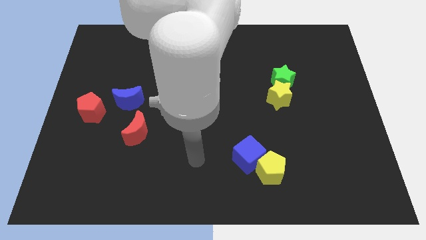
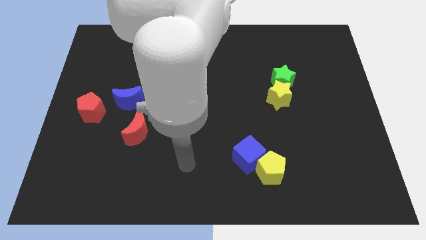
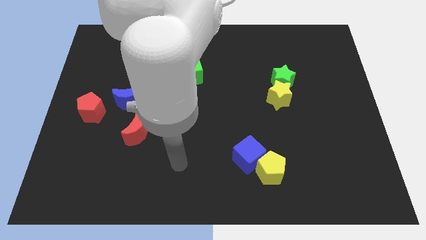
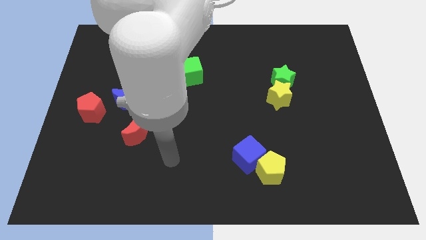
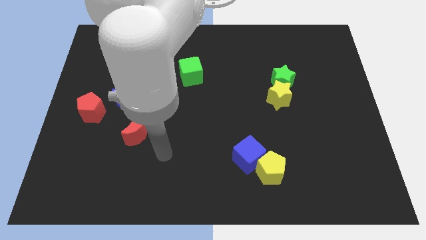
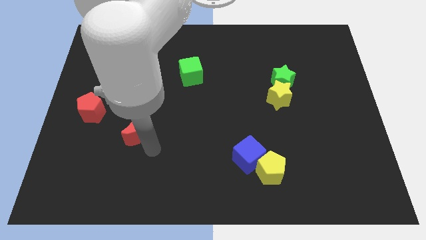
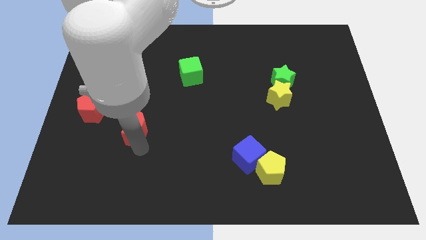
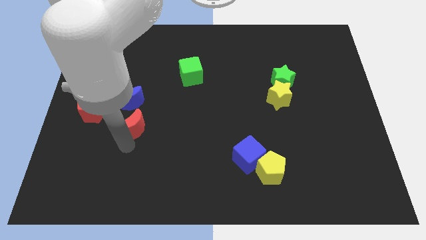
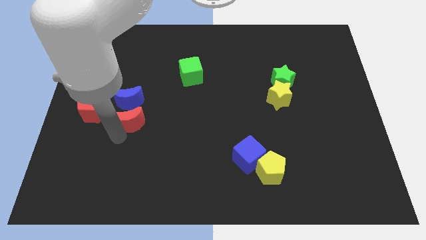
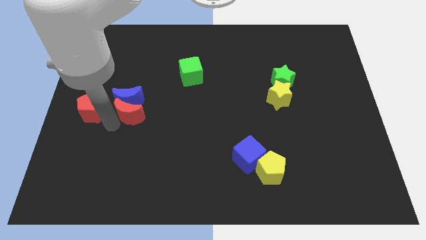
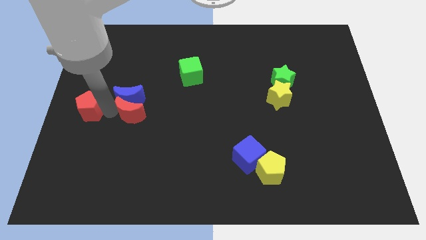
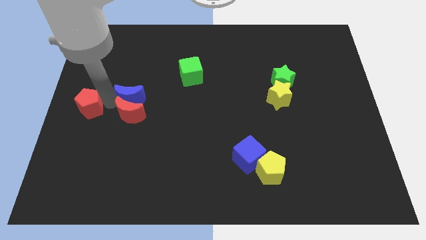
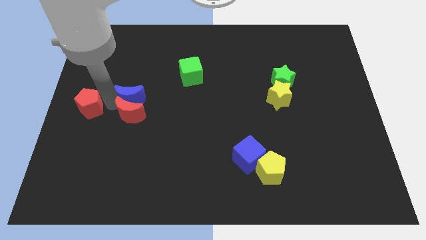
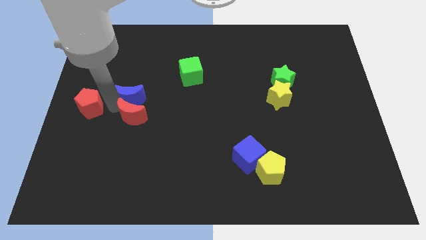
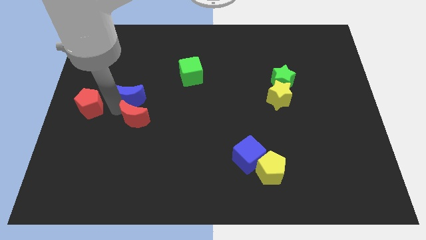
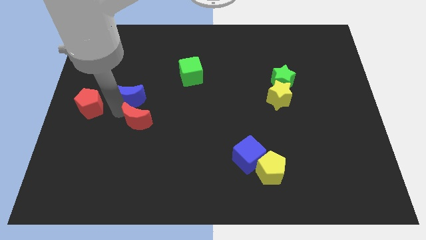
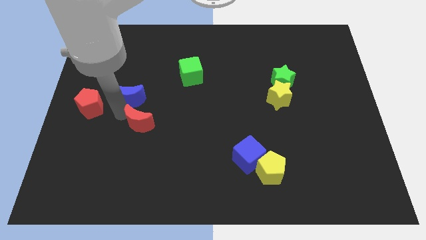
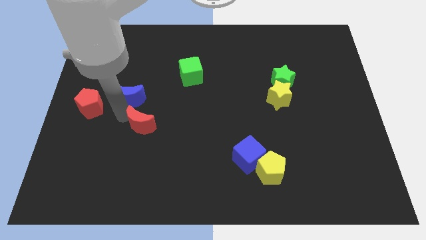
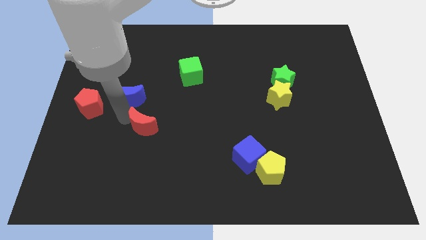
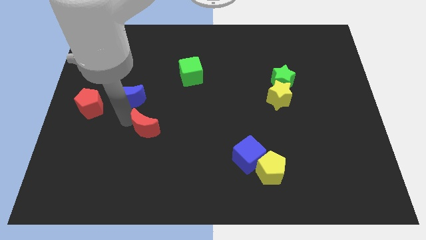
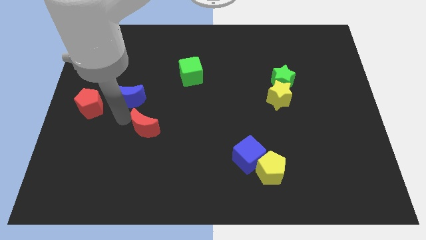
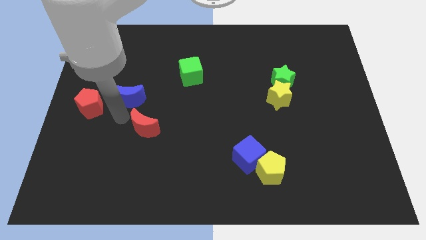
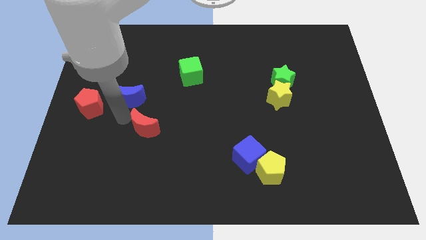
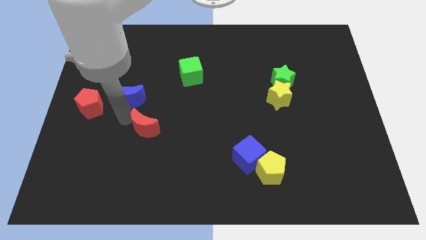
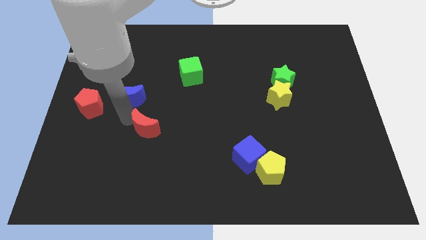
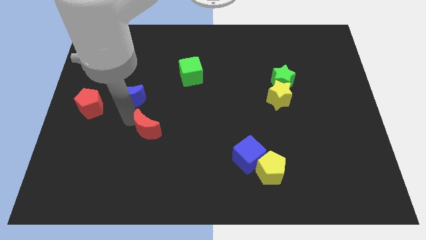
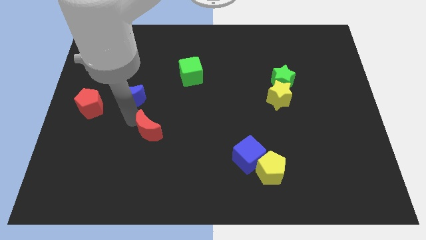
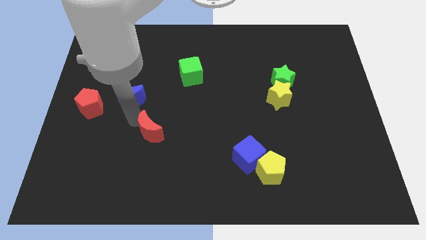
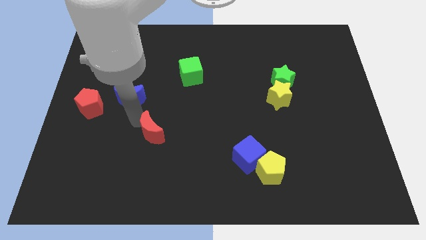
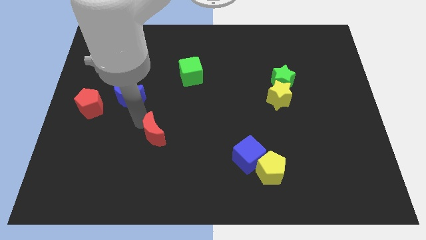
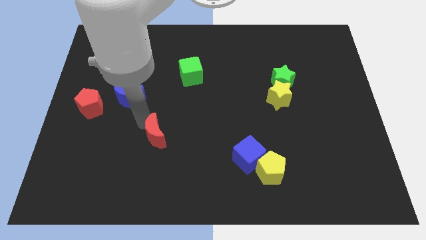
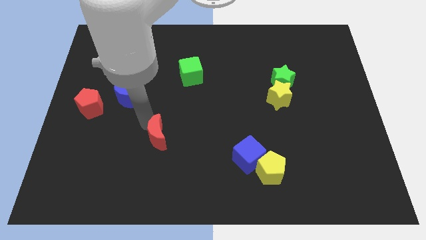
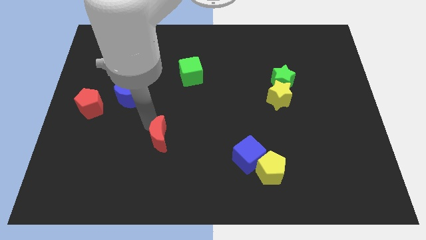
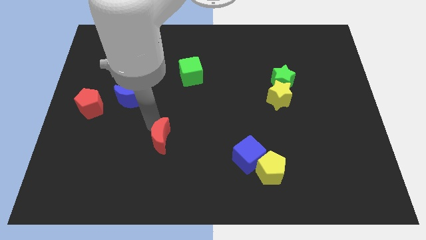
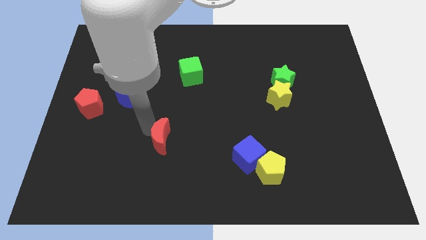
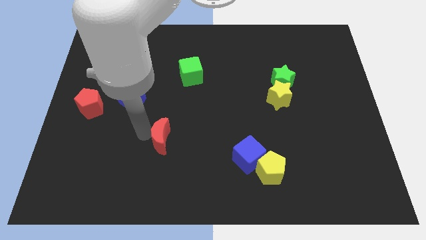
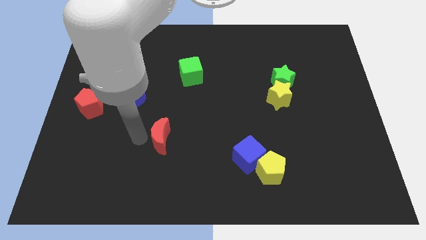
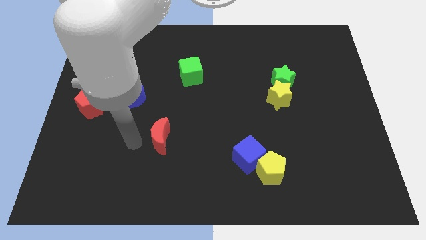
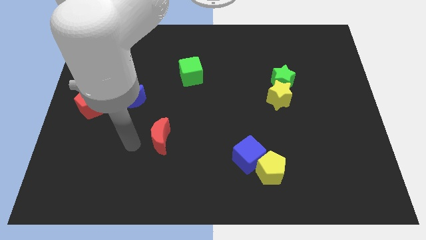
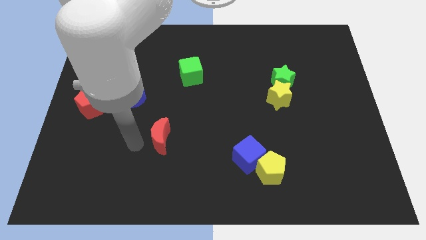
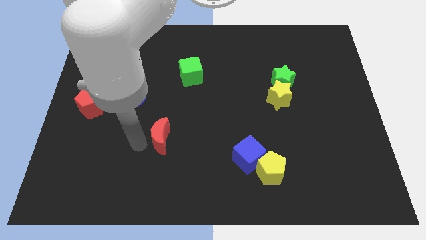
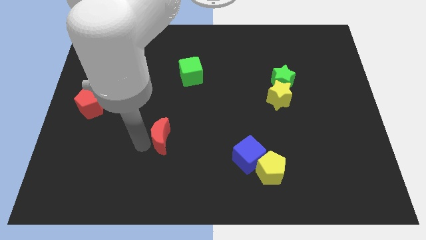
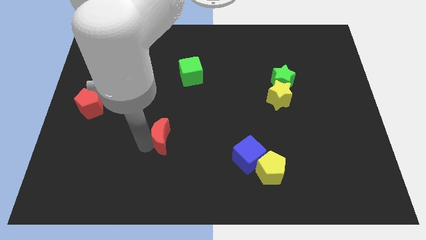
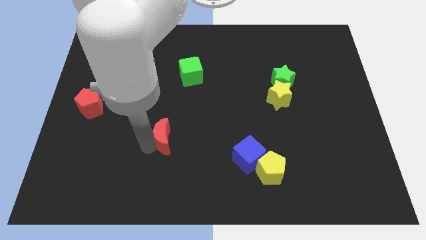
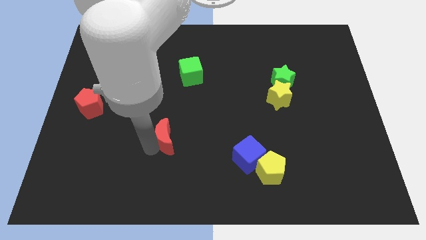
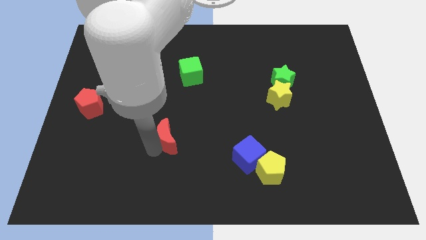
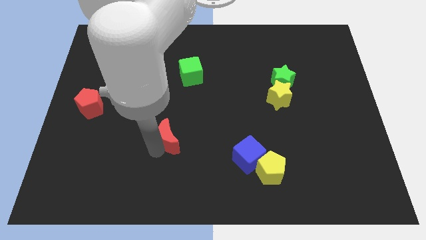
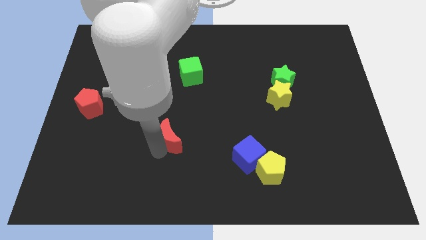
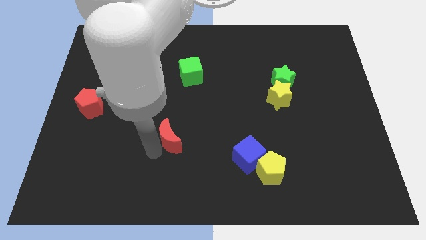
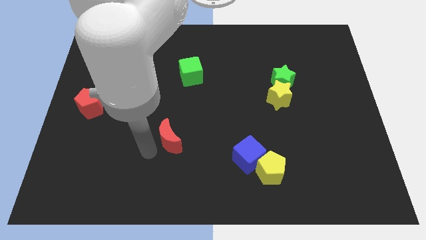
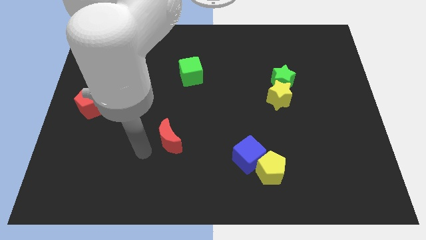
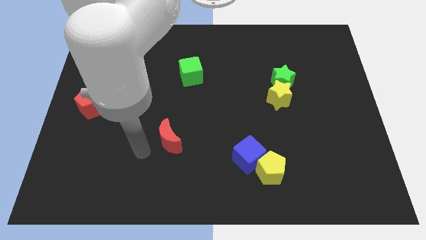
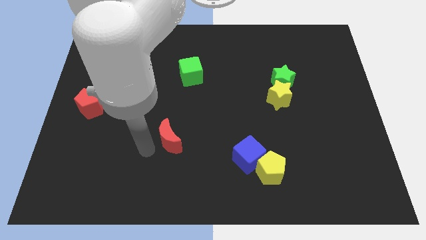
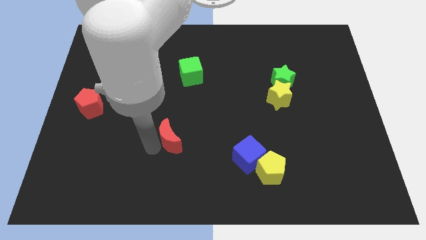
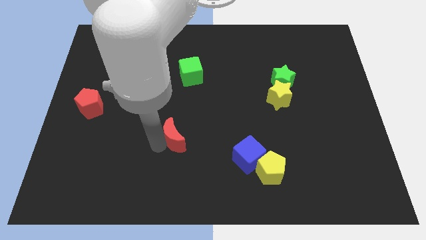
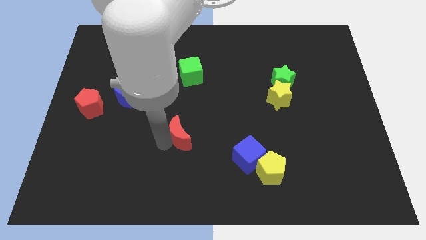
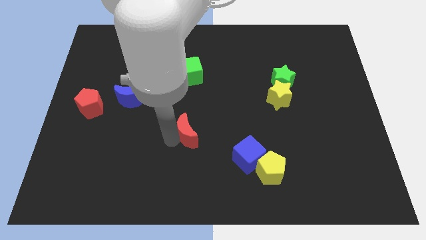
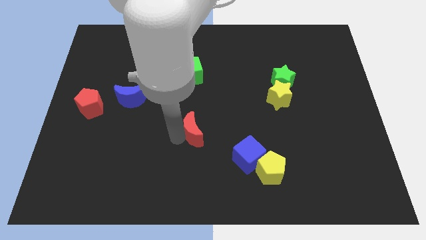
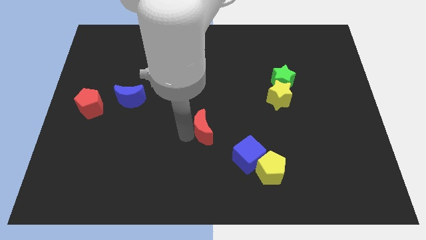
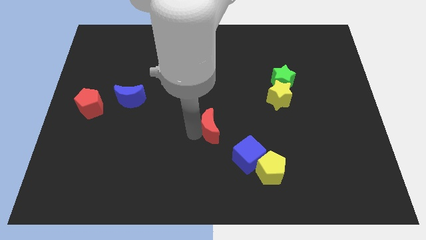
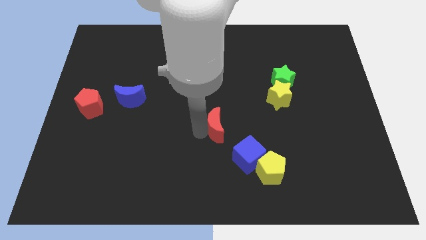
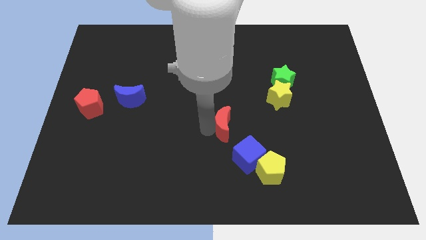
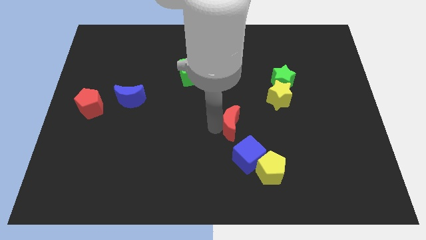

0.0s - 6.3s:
slide the red moon right

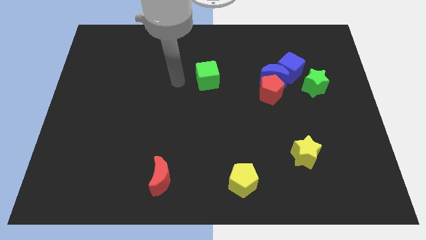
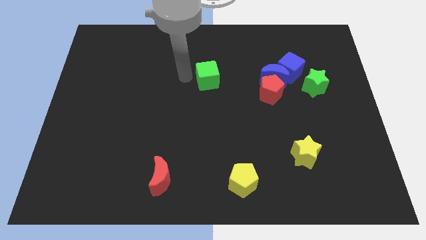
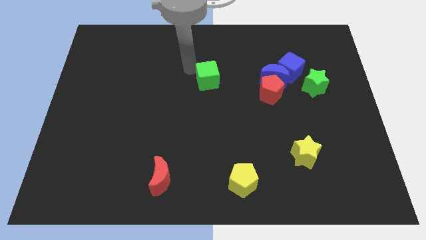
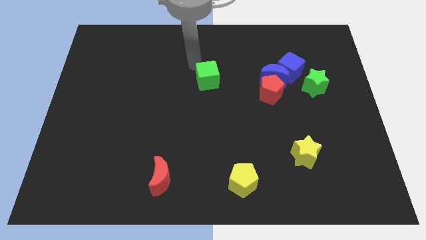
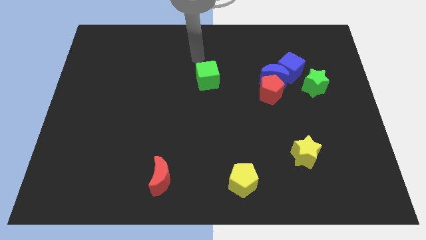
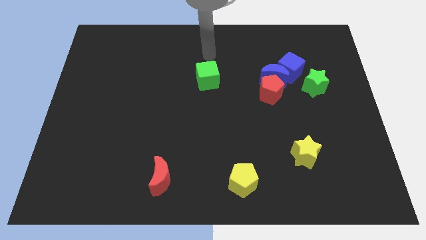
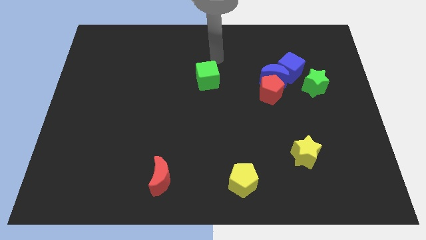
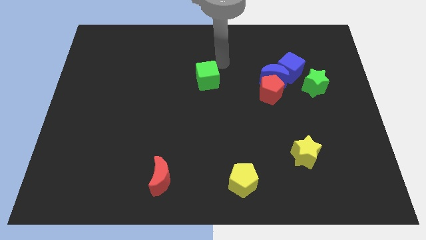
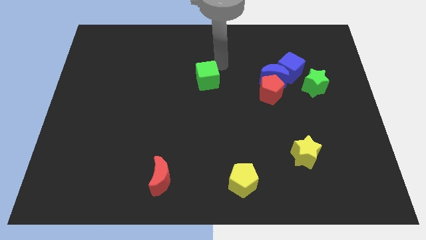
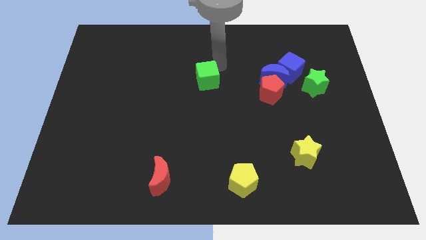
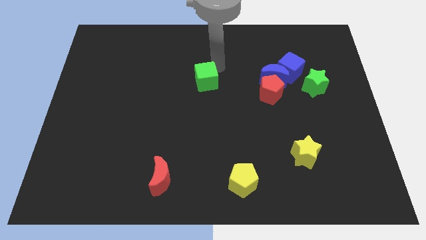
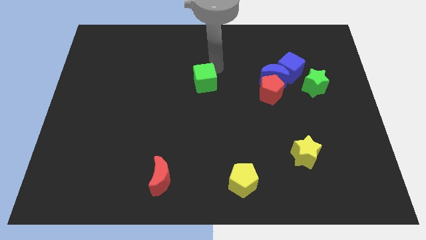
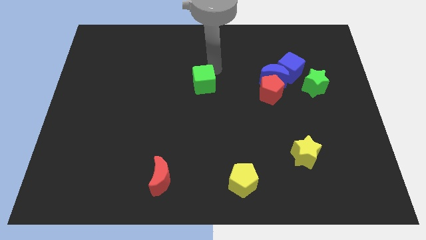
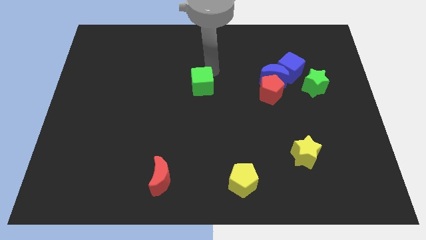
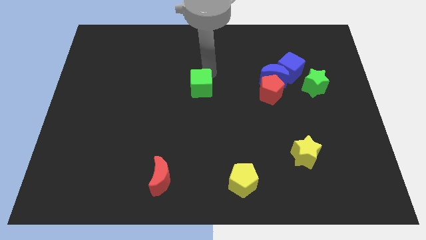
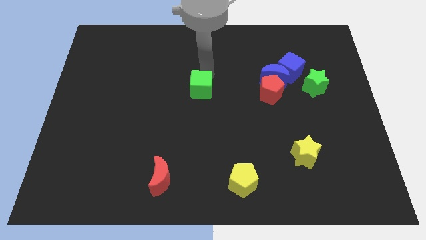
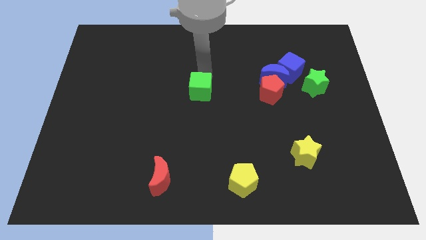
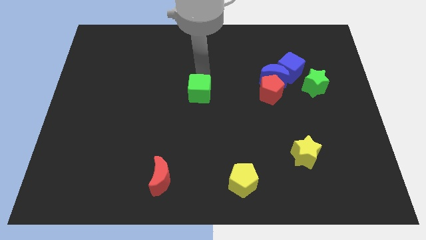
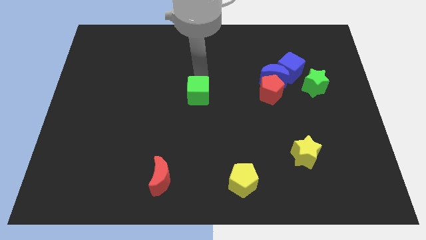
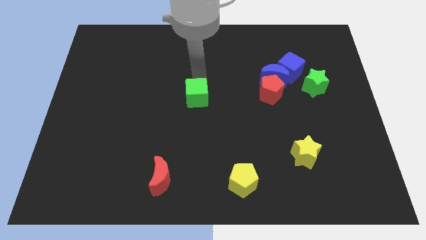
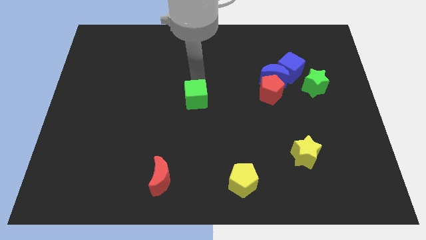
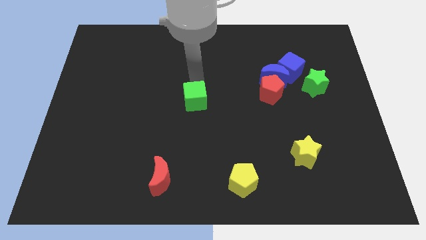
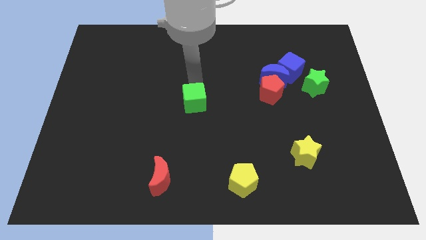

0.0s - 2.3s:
slightly push the green cube downwards and left

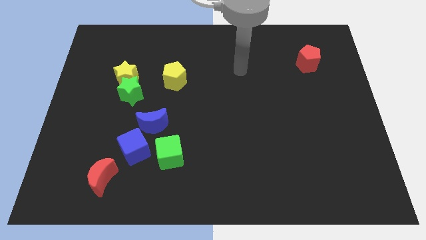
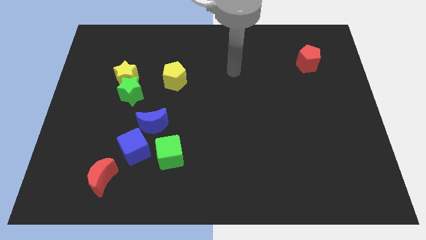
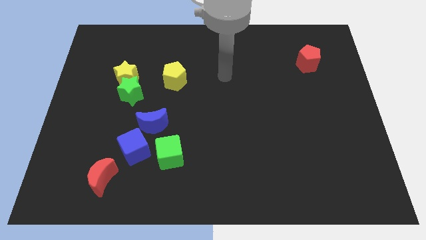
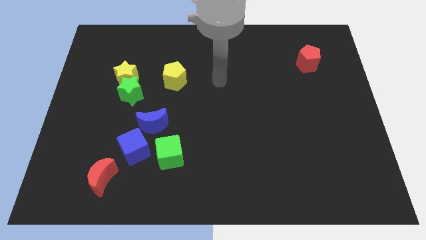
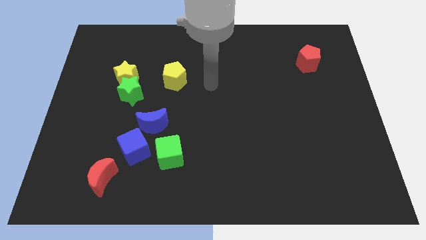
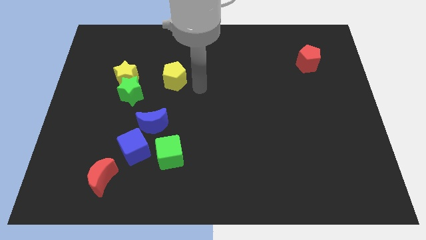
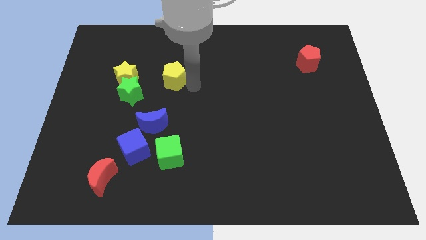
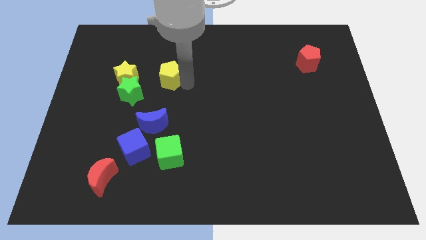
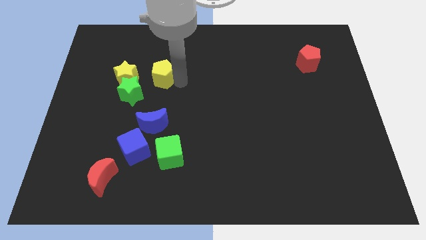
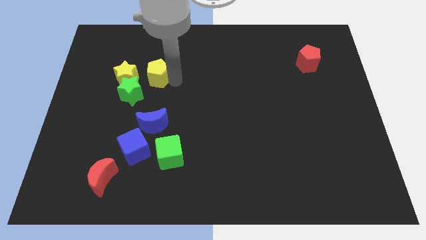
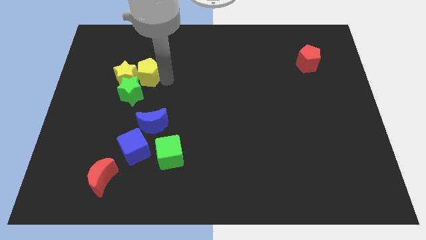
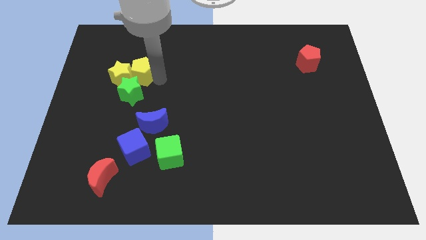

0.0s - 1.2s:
move the yellow pentagon to the left somewhat
